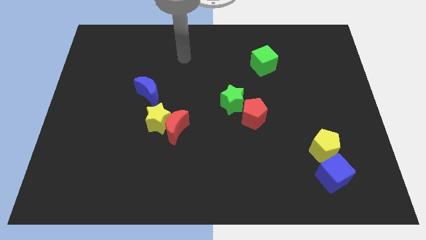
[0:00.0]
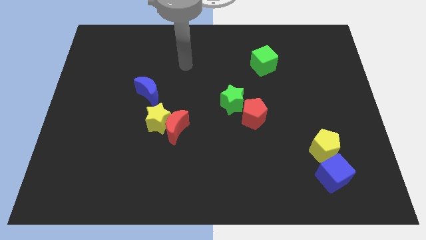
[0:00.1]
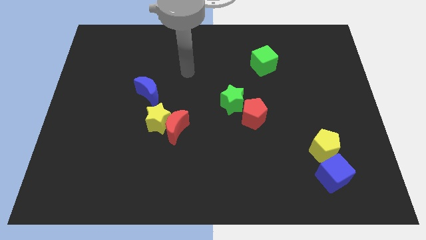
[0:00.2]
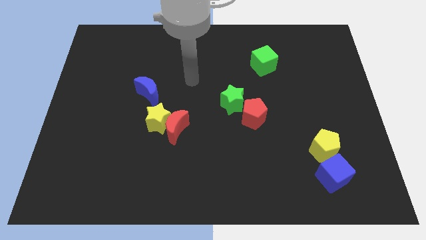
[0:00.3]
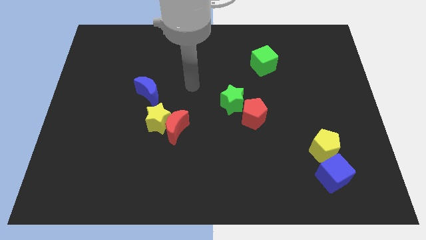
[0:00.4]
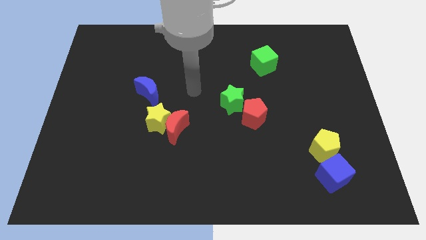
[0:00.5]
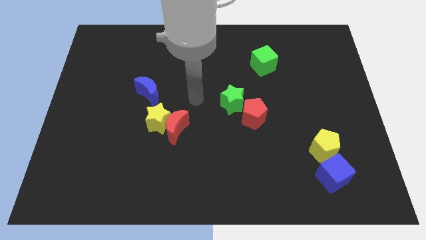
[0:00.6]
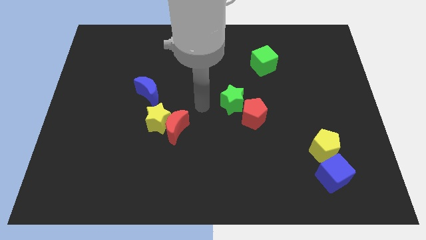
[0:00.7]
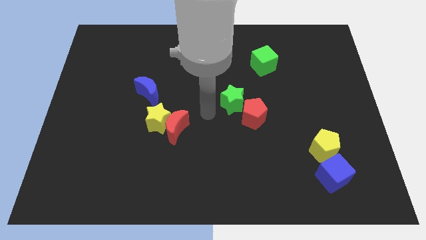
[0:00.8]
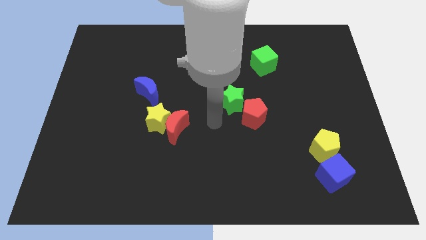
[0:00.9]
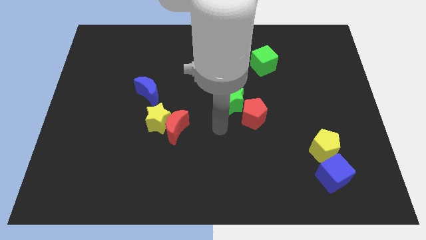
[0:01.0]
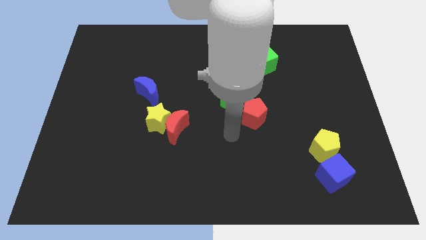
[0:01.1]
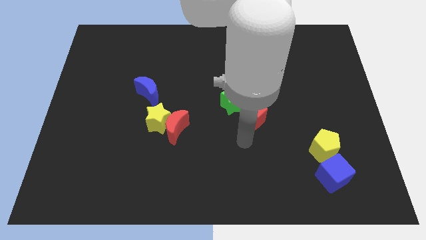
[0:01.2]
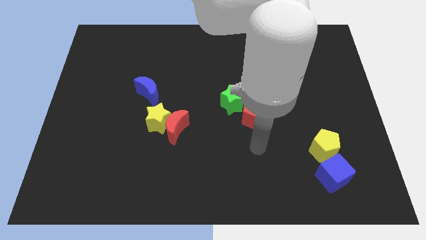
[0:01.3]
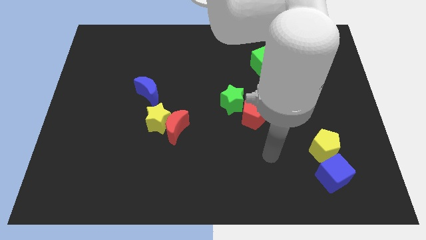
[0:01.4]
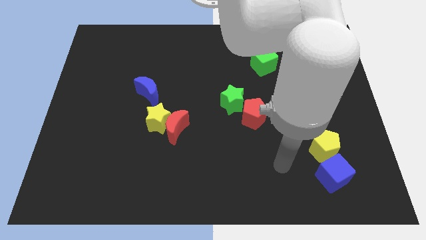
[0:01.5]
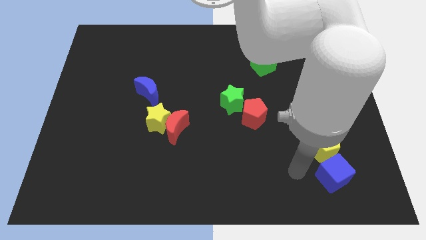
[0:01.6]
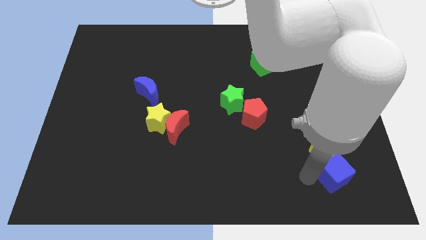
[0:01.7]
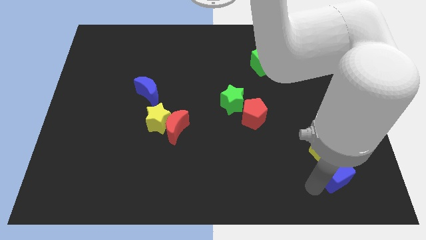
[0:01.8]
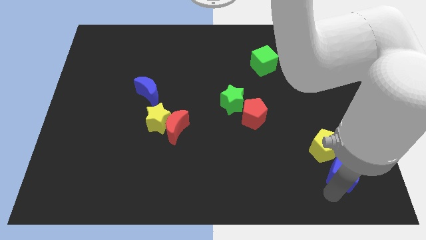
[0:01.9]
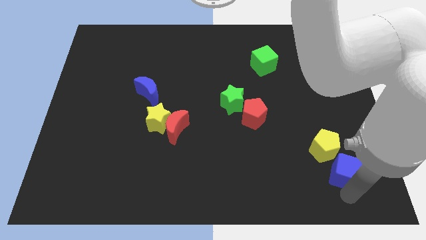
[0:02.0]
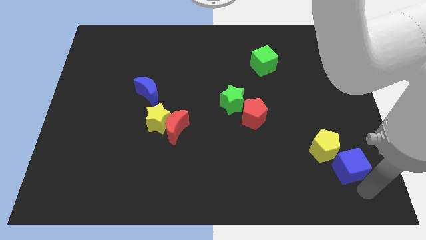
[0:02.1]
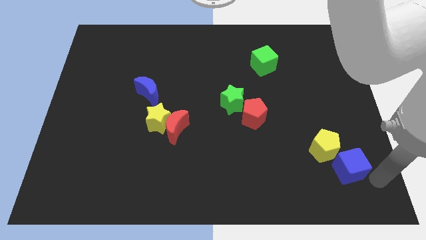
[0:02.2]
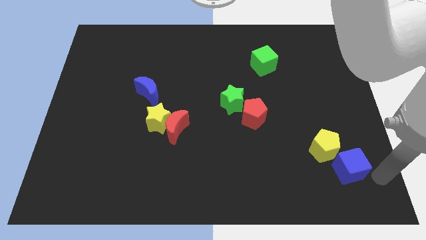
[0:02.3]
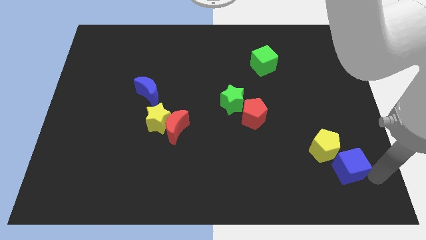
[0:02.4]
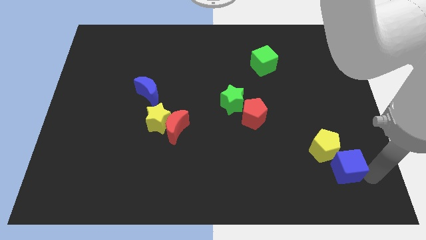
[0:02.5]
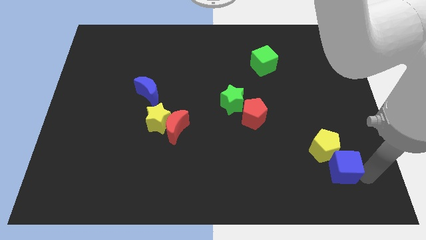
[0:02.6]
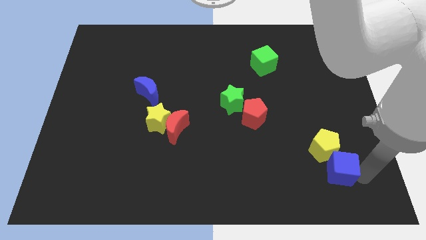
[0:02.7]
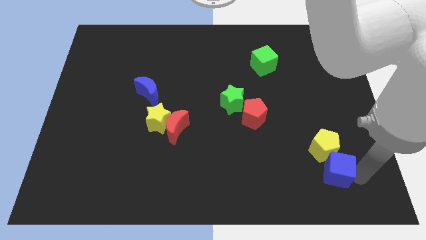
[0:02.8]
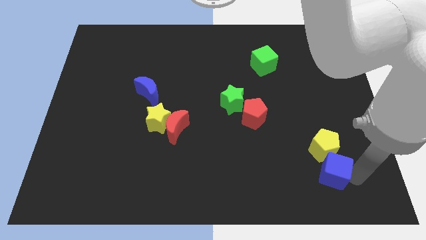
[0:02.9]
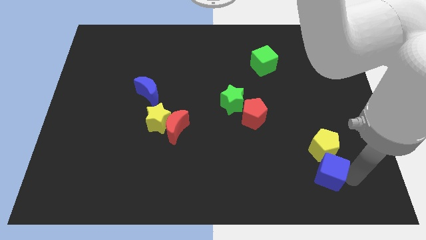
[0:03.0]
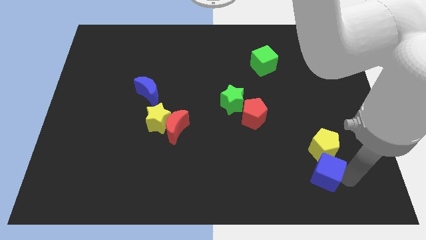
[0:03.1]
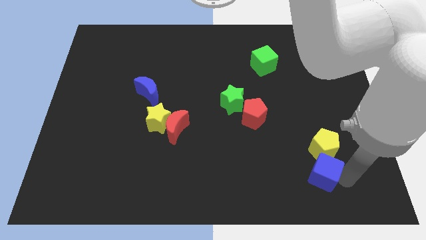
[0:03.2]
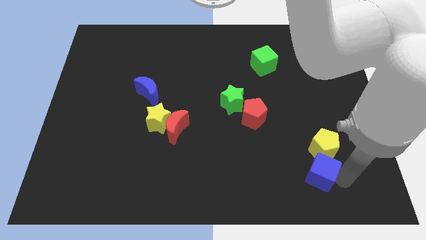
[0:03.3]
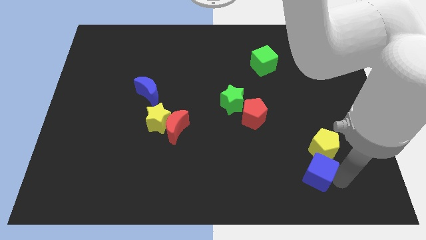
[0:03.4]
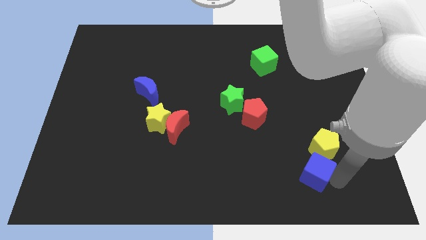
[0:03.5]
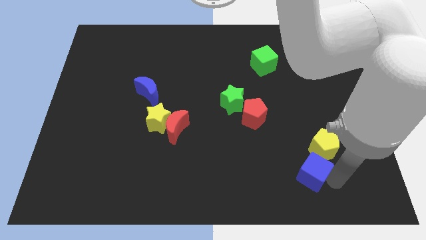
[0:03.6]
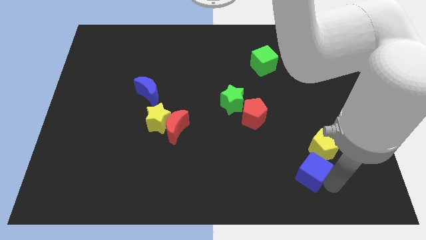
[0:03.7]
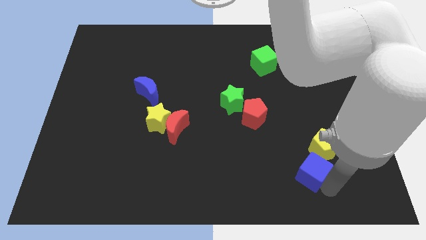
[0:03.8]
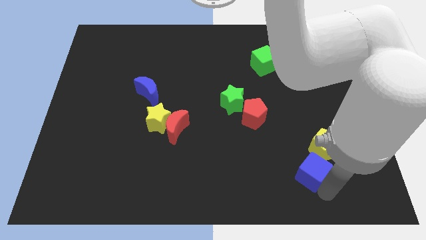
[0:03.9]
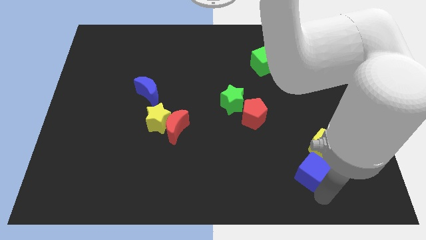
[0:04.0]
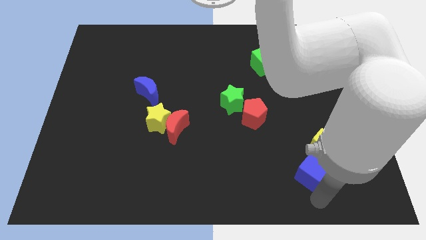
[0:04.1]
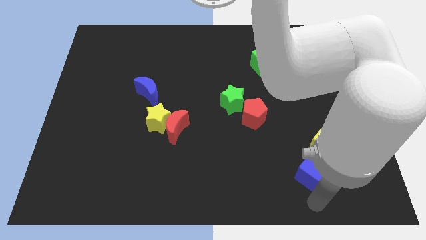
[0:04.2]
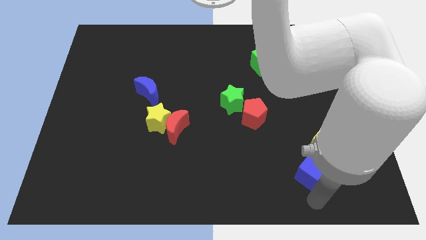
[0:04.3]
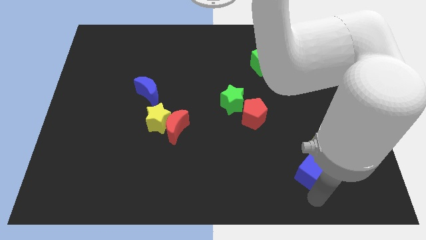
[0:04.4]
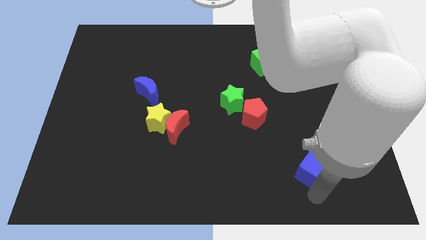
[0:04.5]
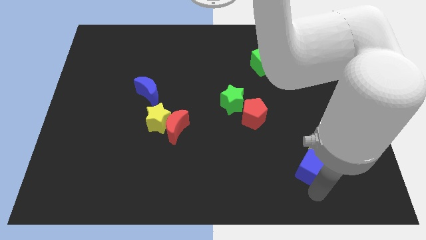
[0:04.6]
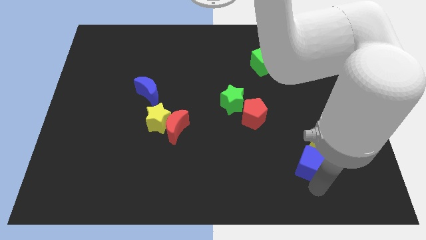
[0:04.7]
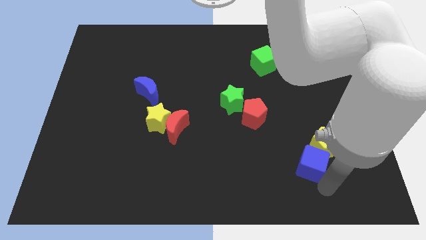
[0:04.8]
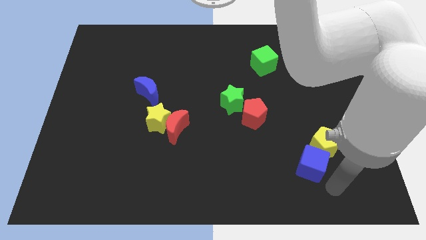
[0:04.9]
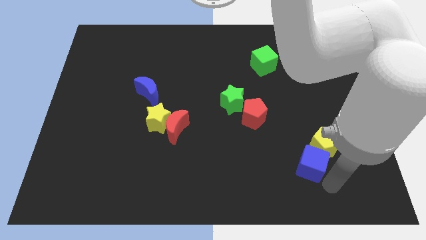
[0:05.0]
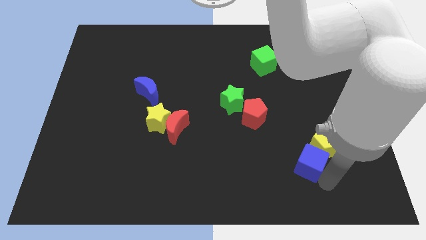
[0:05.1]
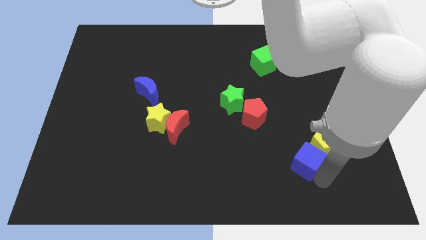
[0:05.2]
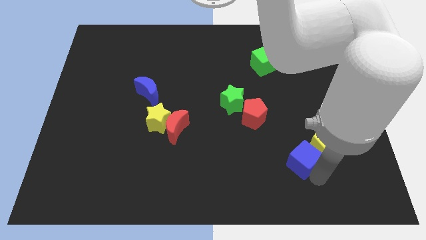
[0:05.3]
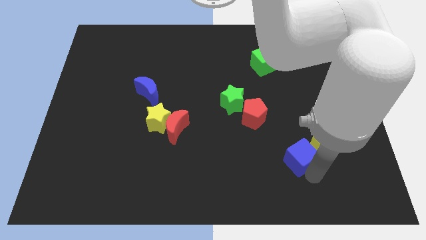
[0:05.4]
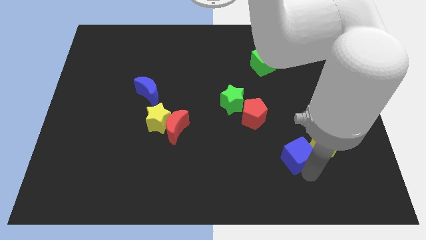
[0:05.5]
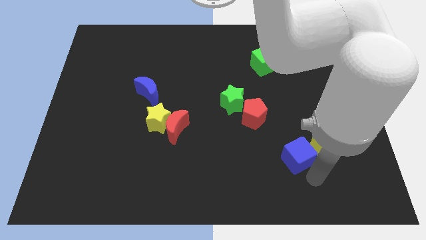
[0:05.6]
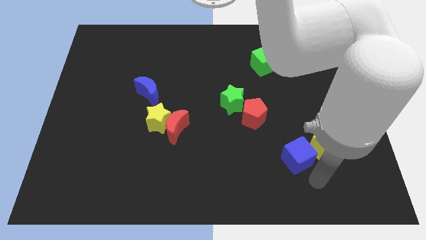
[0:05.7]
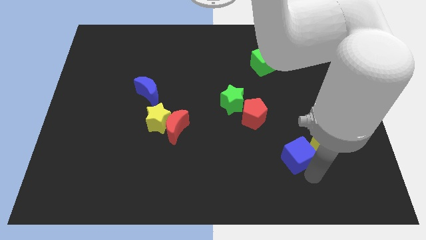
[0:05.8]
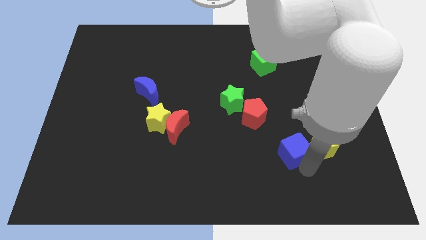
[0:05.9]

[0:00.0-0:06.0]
move the blue cube diagonally down and to the right of the red pentagon

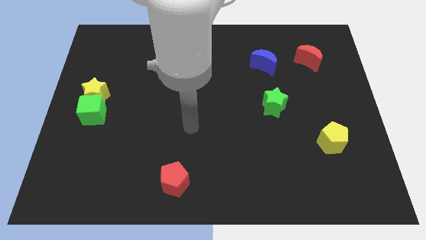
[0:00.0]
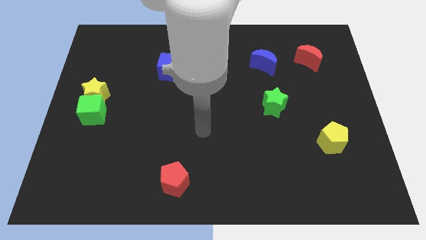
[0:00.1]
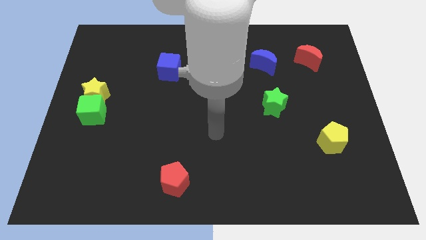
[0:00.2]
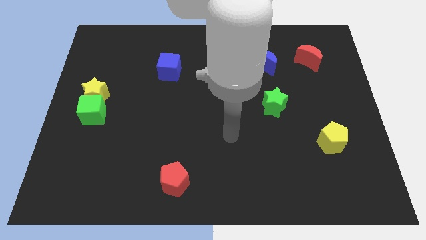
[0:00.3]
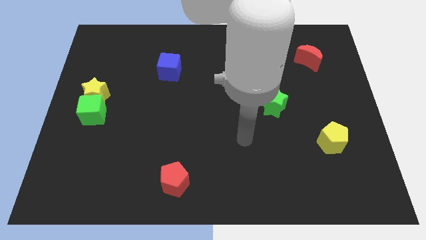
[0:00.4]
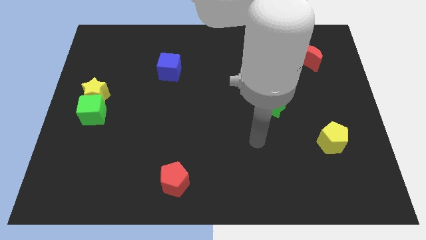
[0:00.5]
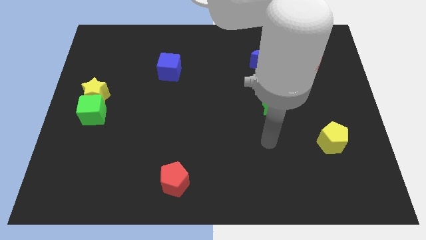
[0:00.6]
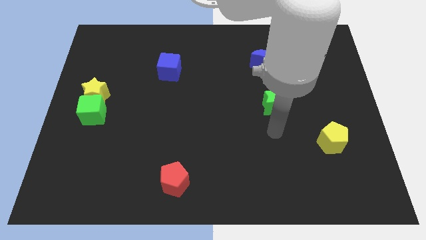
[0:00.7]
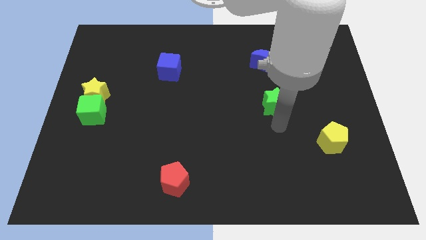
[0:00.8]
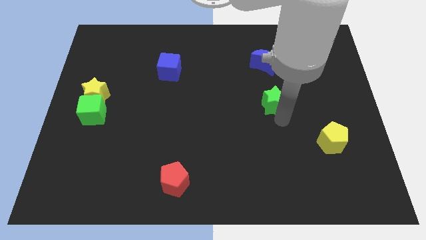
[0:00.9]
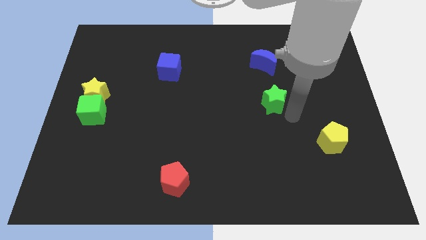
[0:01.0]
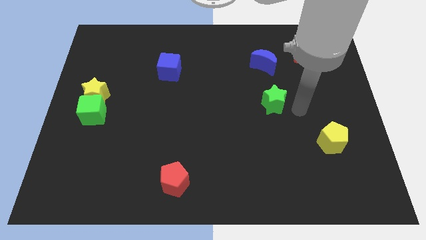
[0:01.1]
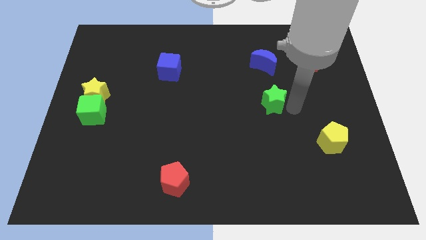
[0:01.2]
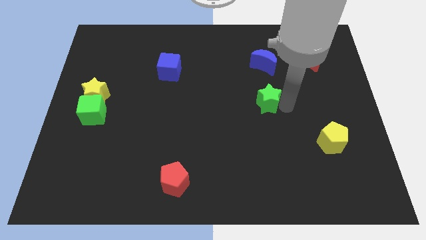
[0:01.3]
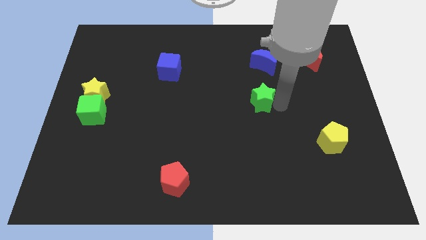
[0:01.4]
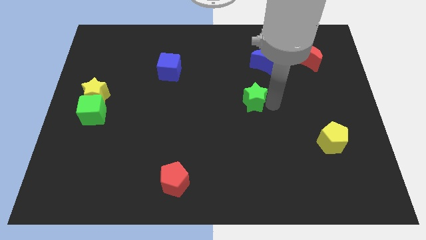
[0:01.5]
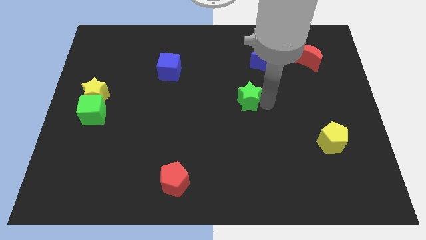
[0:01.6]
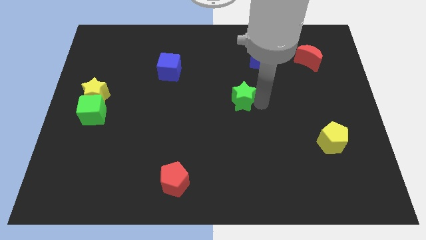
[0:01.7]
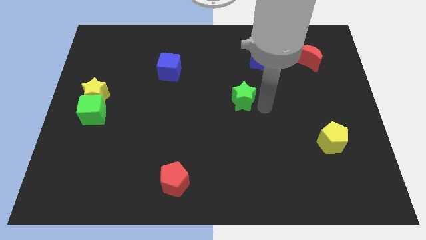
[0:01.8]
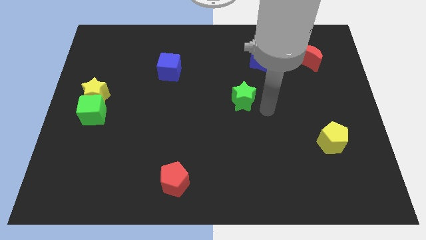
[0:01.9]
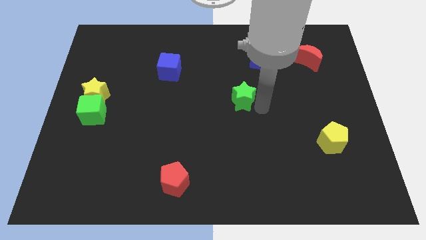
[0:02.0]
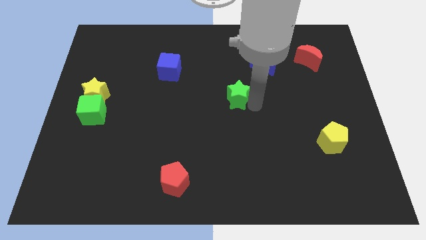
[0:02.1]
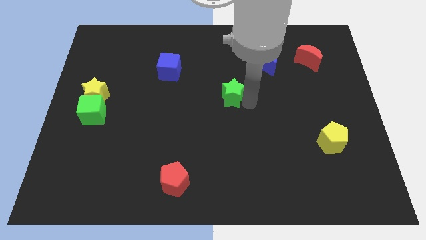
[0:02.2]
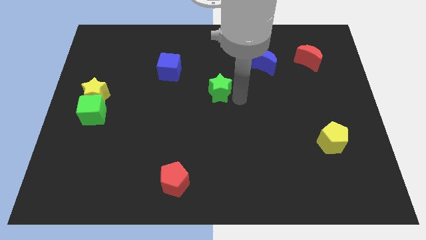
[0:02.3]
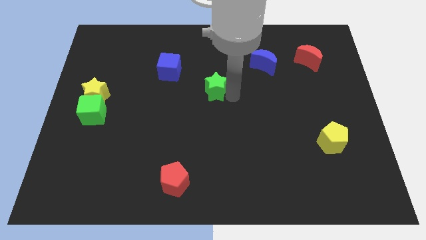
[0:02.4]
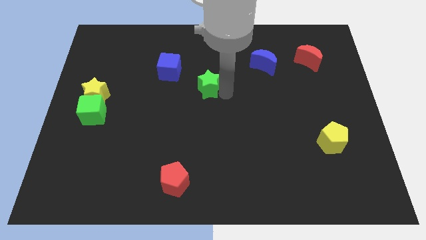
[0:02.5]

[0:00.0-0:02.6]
push the green star diagonally down and to the right of the blue cube
